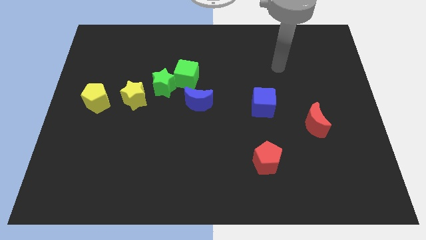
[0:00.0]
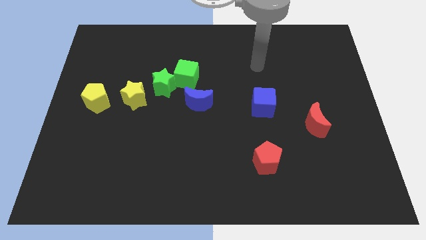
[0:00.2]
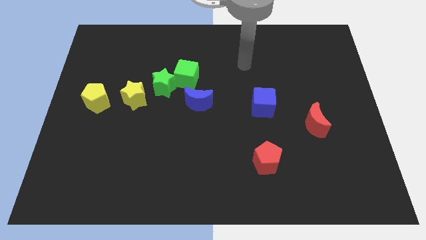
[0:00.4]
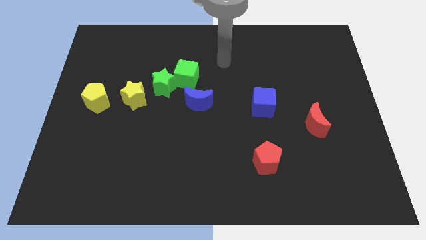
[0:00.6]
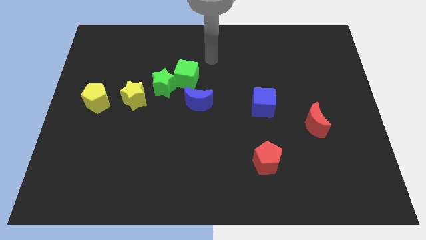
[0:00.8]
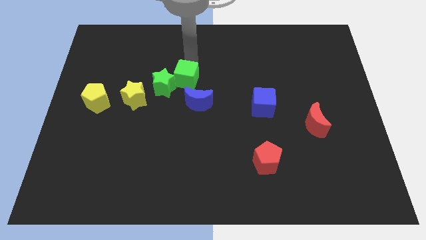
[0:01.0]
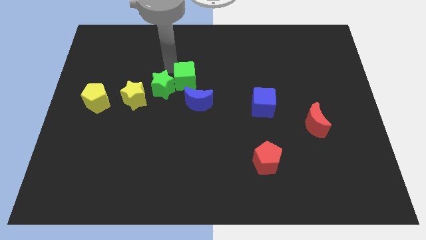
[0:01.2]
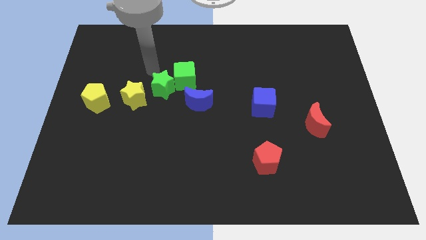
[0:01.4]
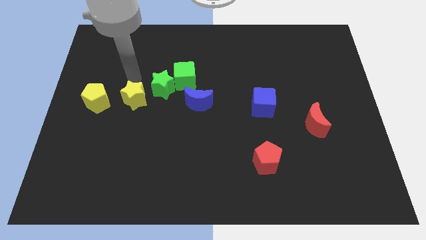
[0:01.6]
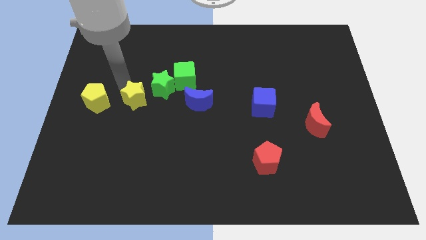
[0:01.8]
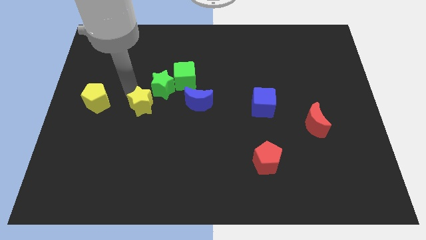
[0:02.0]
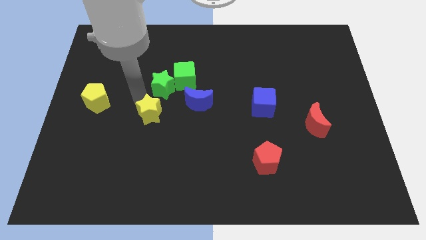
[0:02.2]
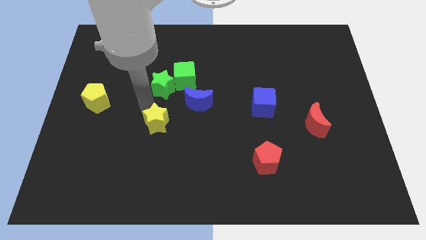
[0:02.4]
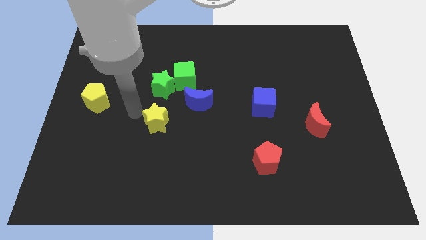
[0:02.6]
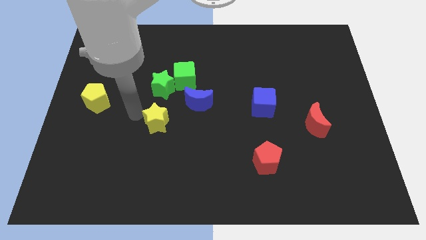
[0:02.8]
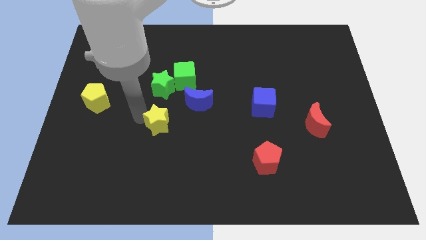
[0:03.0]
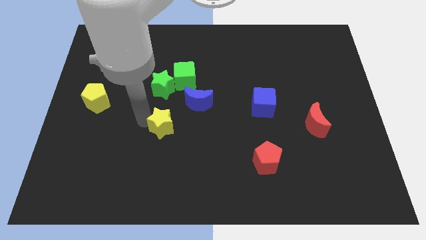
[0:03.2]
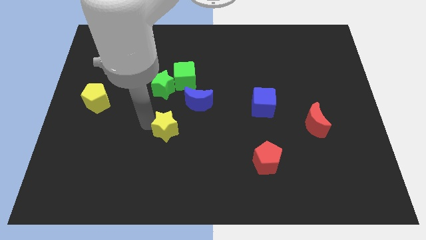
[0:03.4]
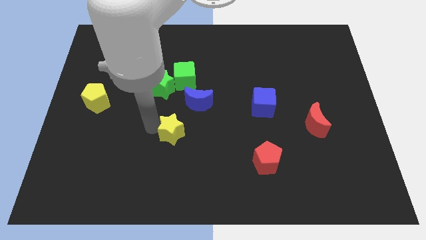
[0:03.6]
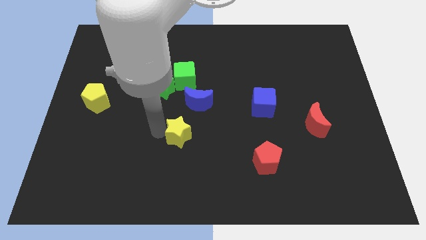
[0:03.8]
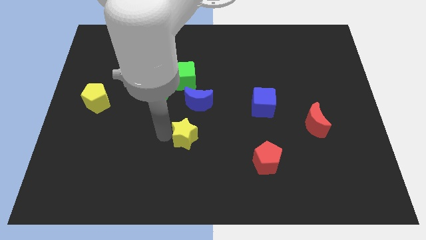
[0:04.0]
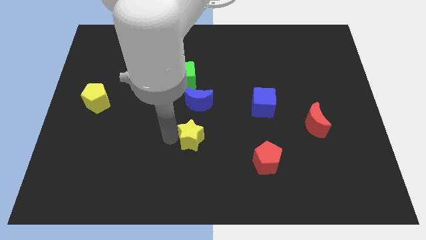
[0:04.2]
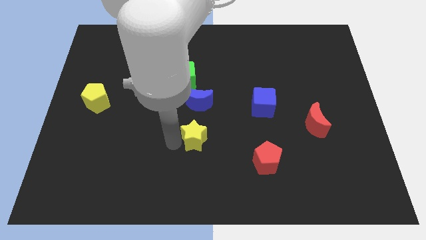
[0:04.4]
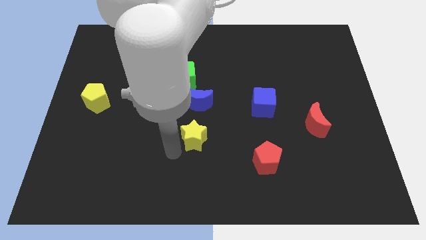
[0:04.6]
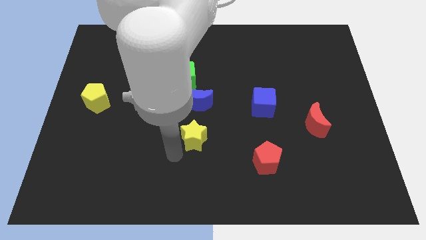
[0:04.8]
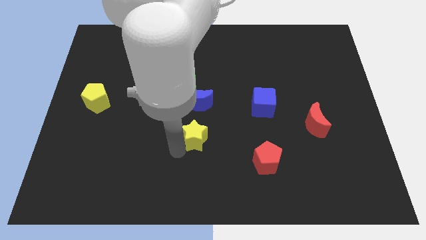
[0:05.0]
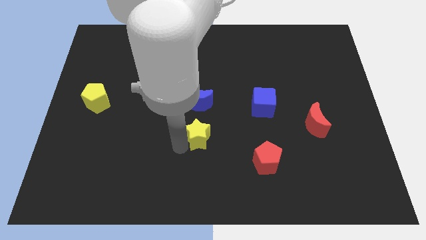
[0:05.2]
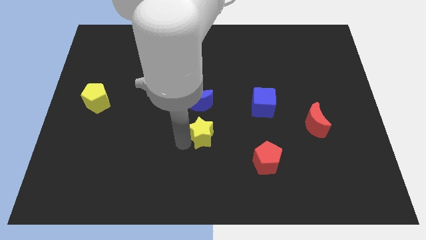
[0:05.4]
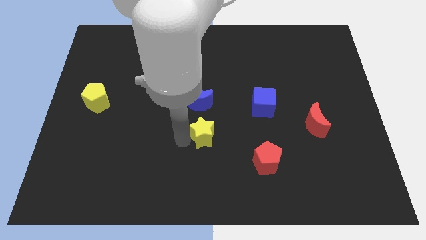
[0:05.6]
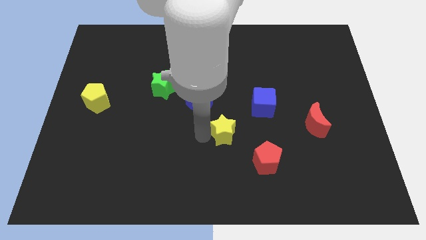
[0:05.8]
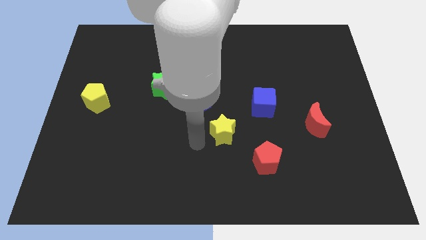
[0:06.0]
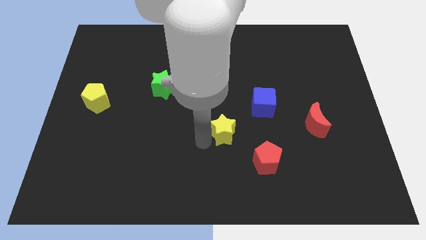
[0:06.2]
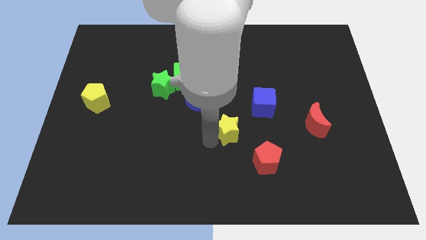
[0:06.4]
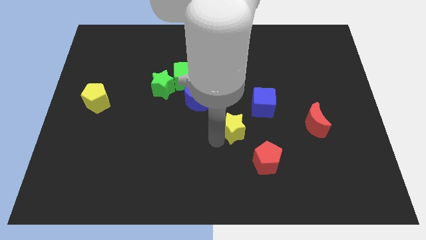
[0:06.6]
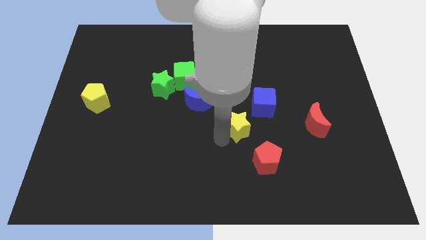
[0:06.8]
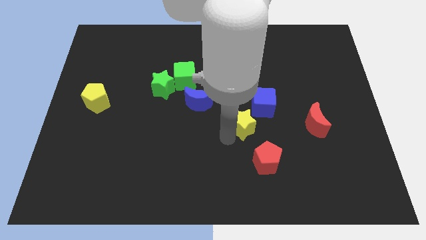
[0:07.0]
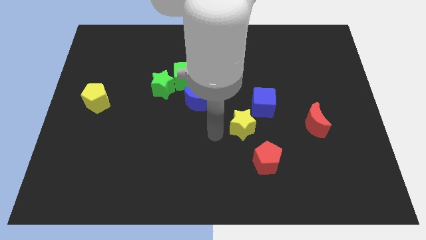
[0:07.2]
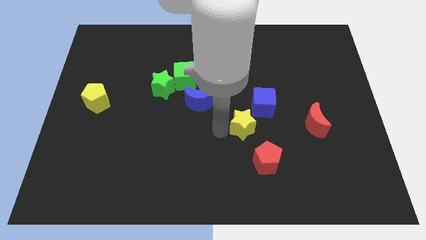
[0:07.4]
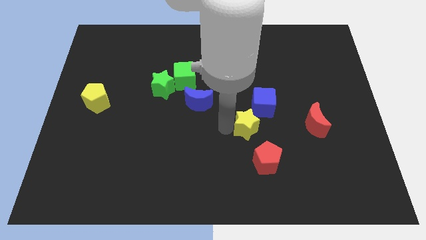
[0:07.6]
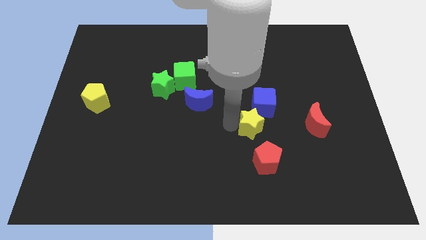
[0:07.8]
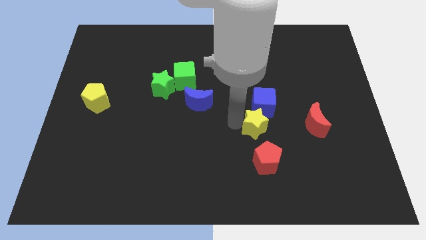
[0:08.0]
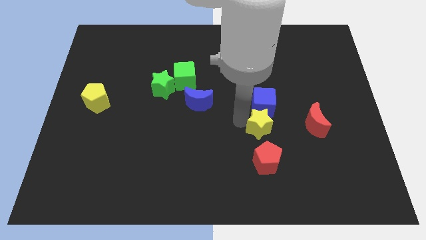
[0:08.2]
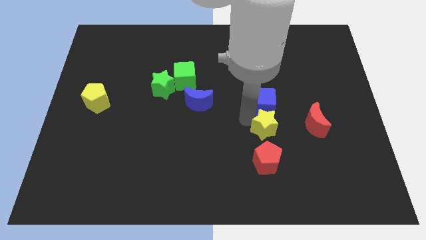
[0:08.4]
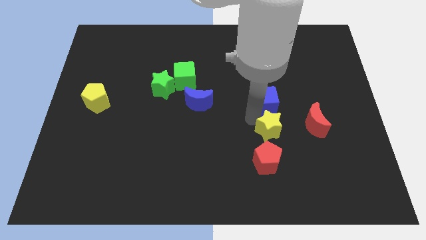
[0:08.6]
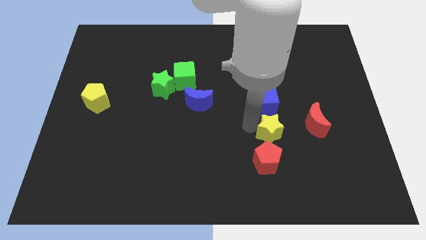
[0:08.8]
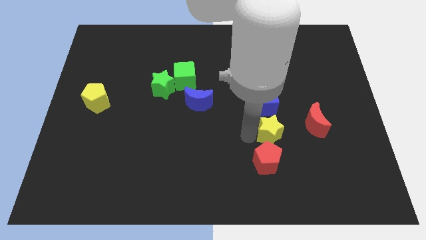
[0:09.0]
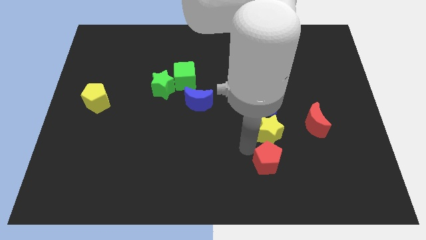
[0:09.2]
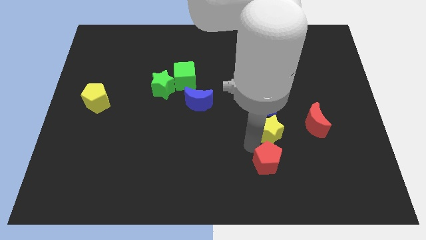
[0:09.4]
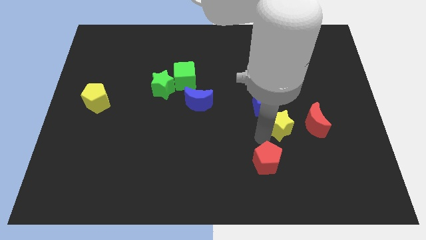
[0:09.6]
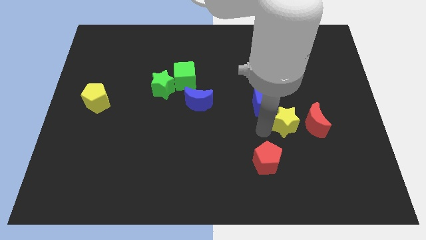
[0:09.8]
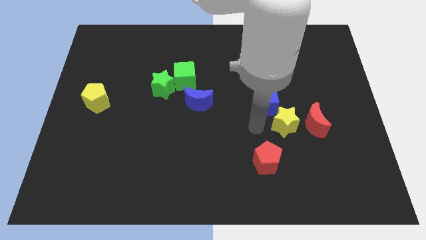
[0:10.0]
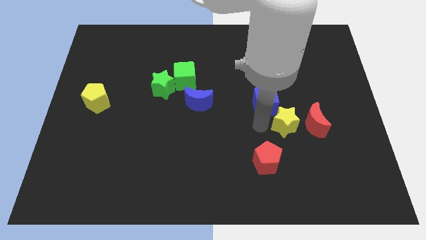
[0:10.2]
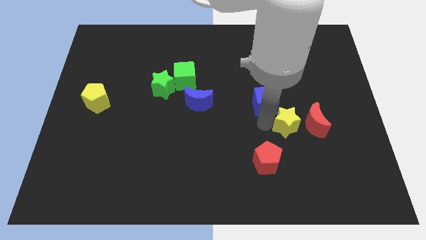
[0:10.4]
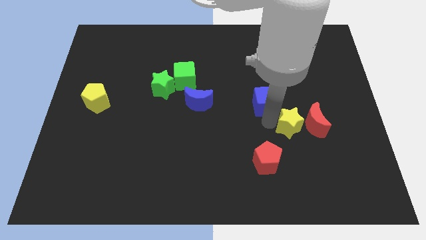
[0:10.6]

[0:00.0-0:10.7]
push the yellow star close to the red moon
